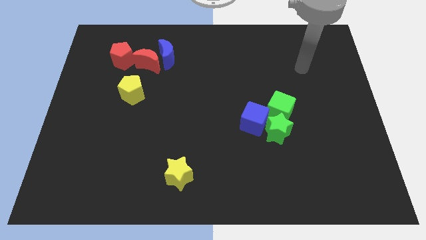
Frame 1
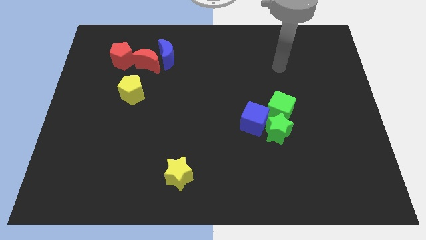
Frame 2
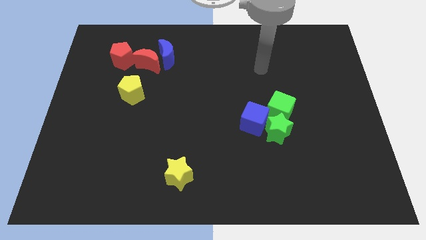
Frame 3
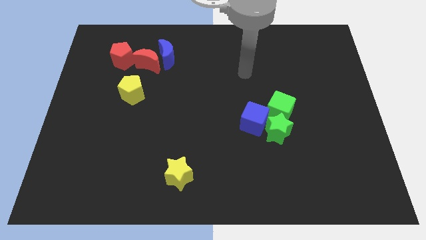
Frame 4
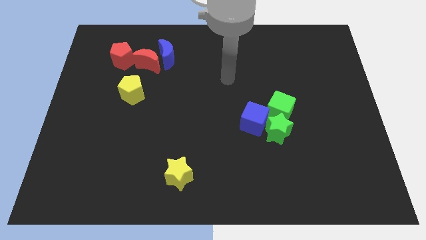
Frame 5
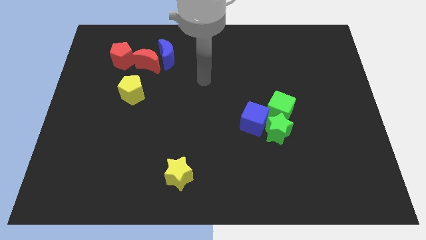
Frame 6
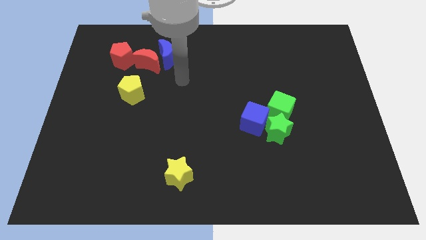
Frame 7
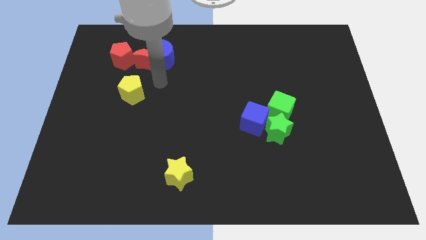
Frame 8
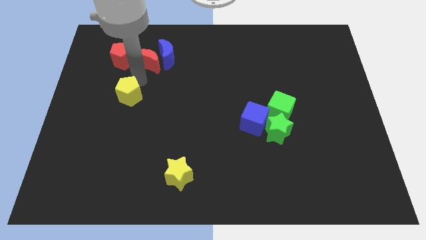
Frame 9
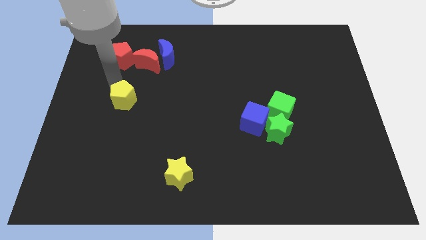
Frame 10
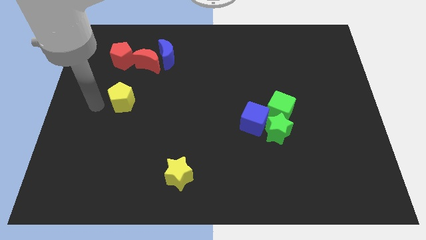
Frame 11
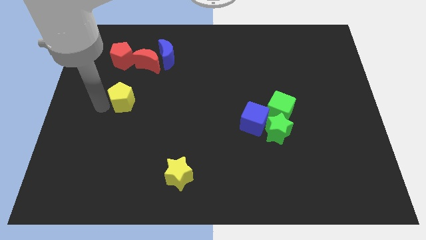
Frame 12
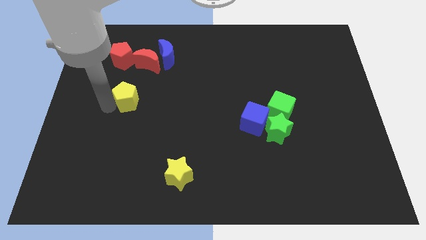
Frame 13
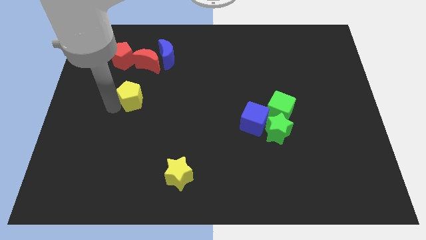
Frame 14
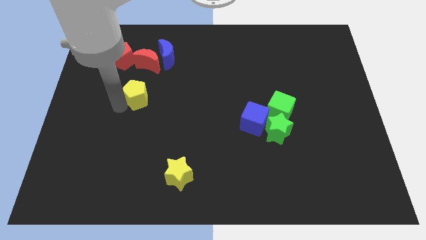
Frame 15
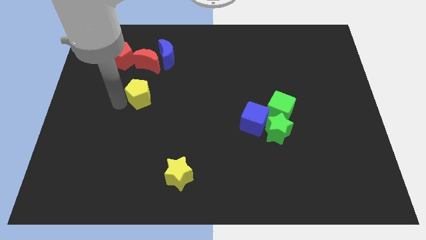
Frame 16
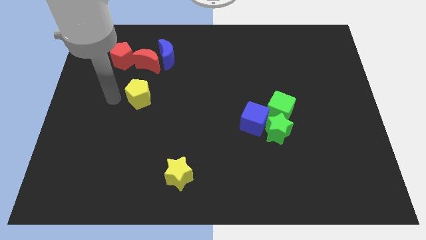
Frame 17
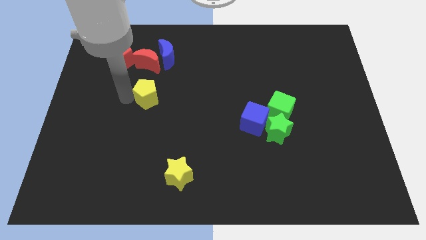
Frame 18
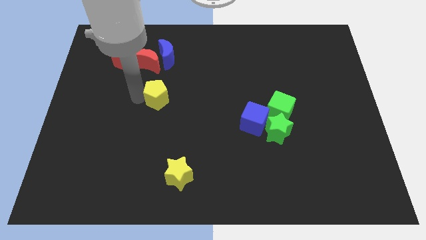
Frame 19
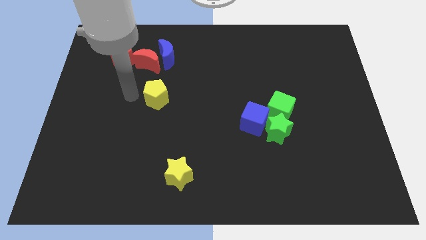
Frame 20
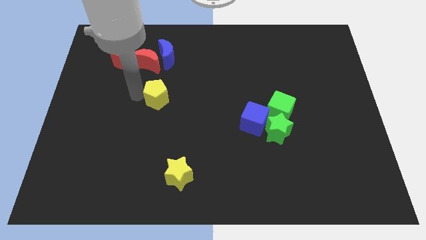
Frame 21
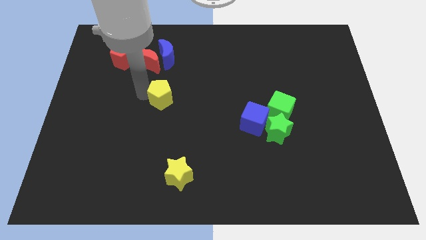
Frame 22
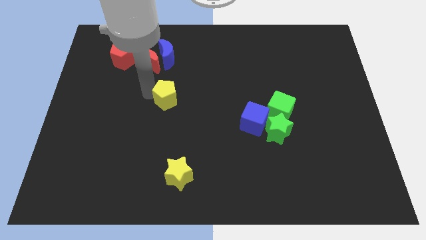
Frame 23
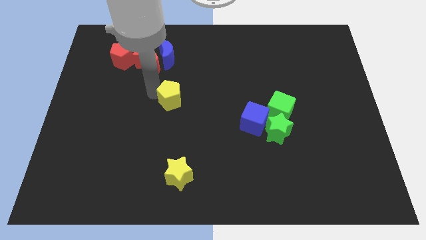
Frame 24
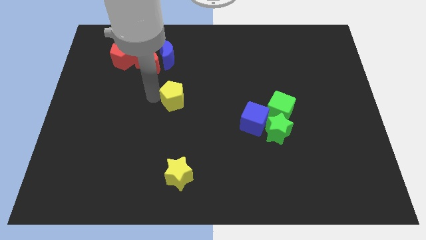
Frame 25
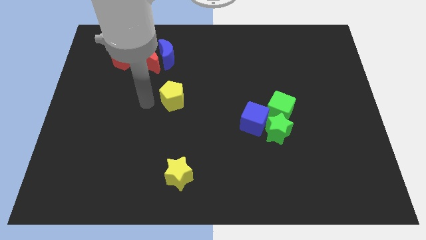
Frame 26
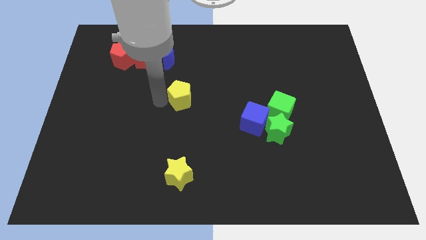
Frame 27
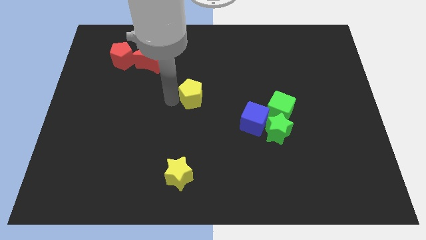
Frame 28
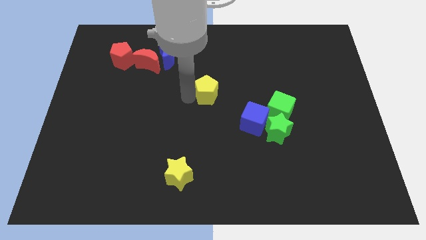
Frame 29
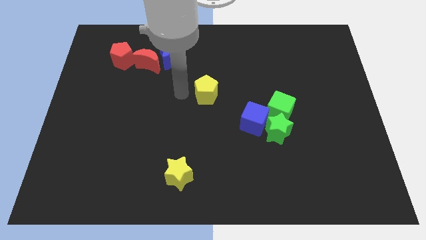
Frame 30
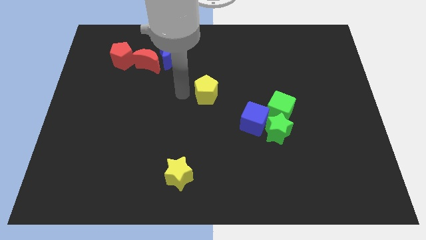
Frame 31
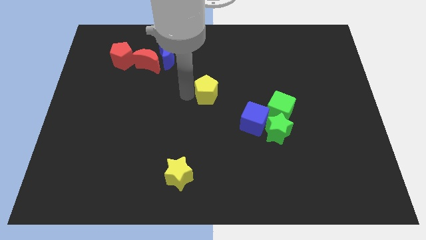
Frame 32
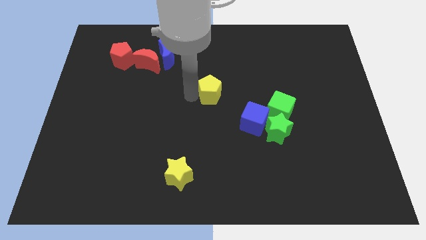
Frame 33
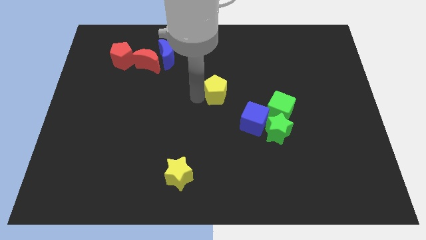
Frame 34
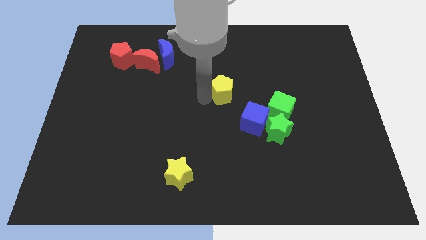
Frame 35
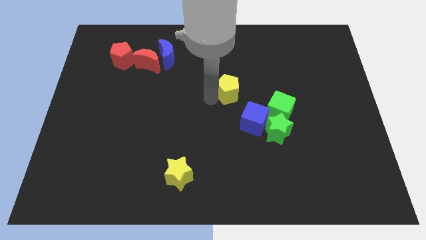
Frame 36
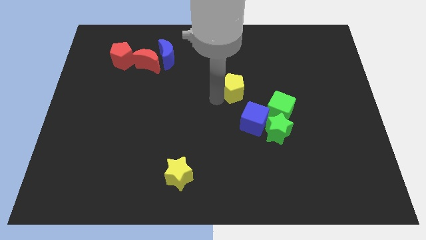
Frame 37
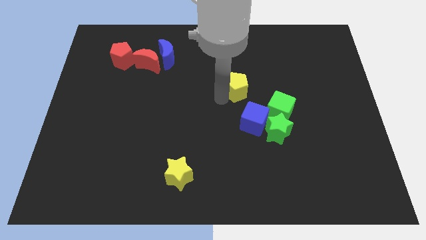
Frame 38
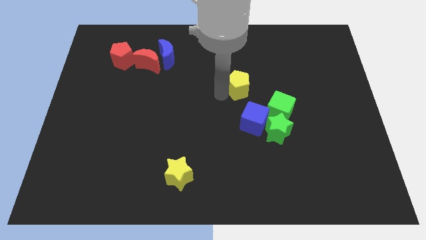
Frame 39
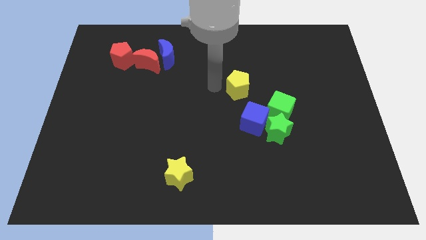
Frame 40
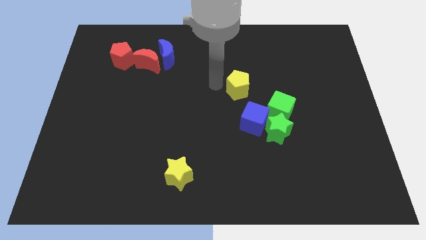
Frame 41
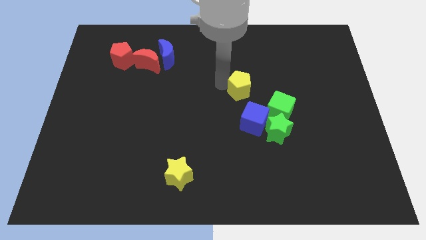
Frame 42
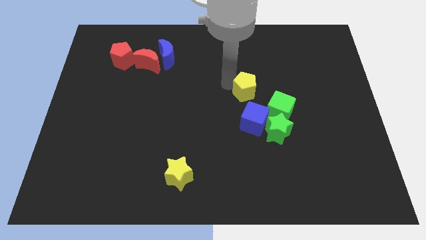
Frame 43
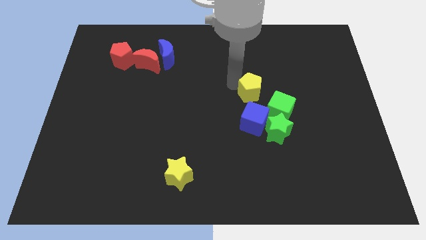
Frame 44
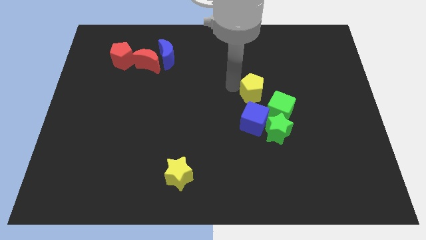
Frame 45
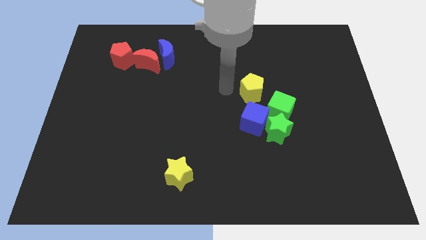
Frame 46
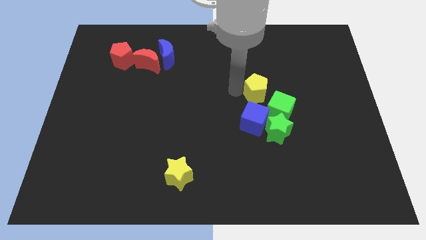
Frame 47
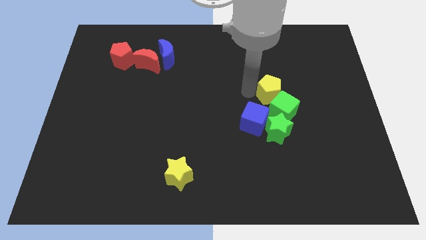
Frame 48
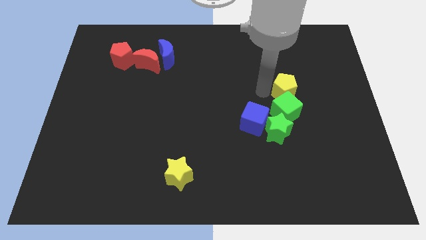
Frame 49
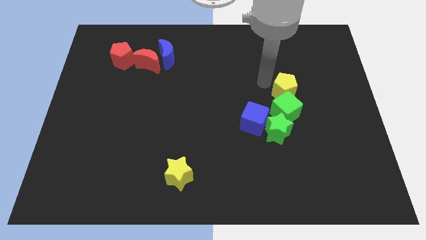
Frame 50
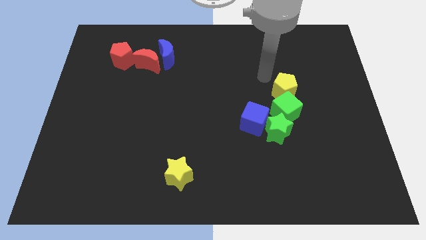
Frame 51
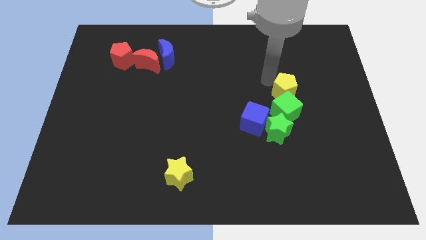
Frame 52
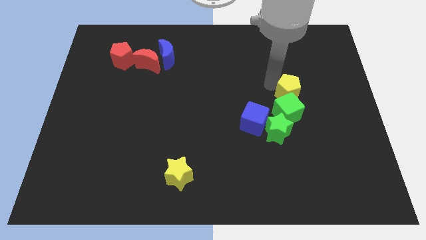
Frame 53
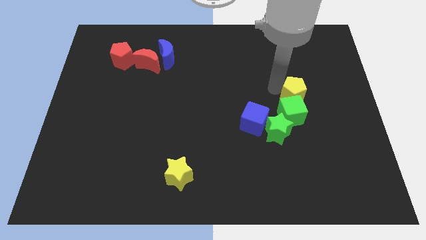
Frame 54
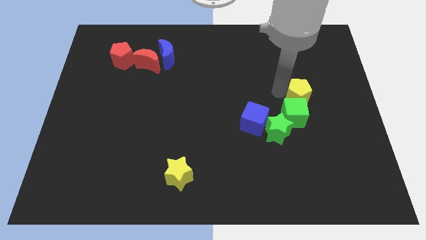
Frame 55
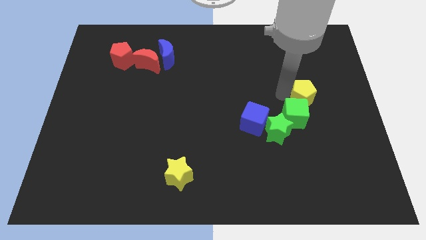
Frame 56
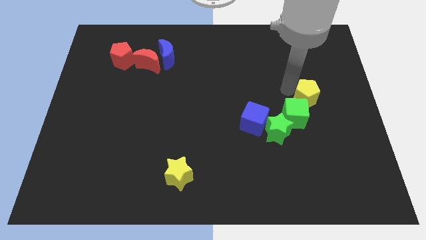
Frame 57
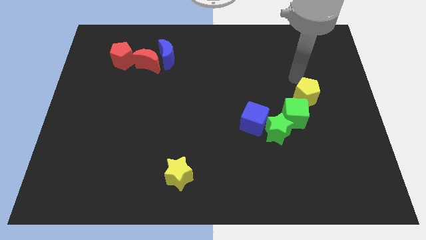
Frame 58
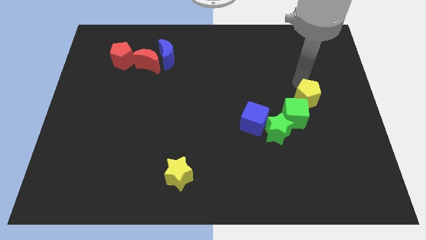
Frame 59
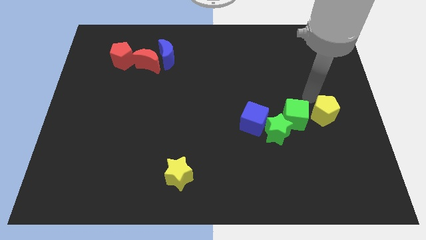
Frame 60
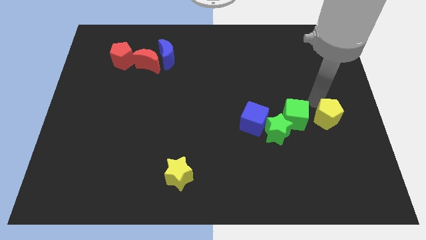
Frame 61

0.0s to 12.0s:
move the yellow pentagon to the right side of the green star

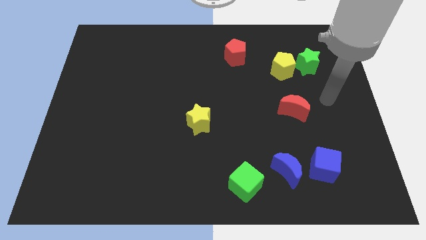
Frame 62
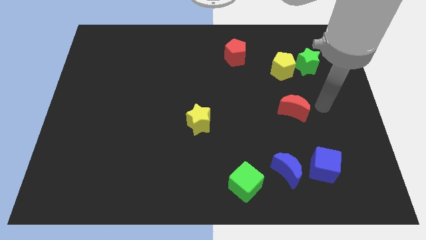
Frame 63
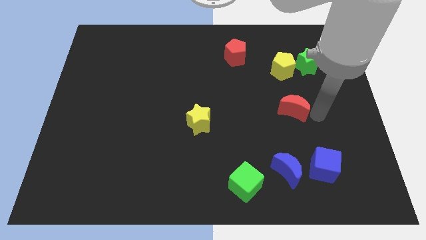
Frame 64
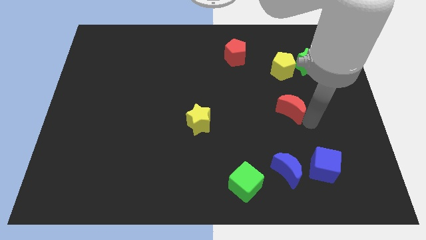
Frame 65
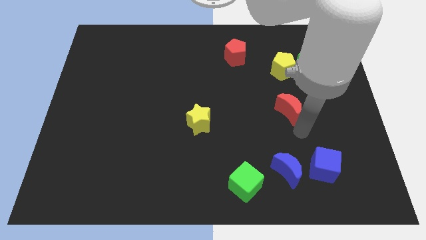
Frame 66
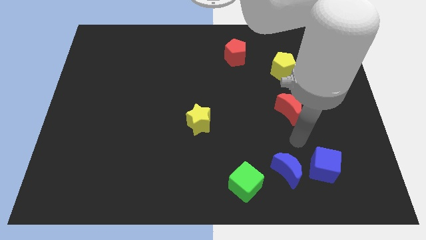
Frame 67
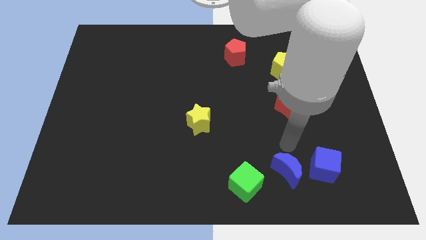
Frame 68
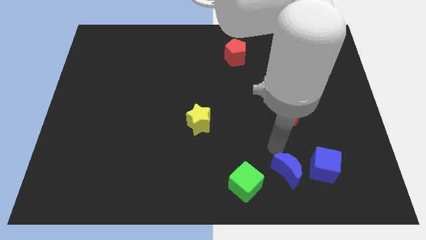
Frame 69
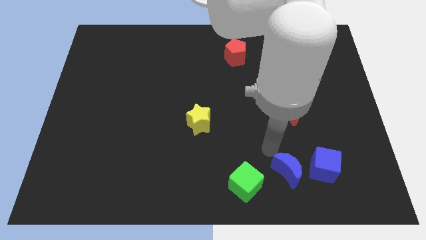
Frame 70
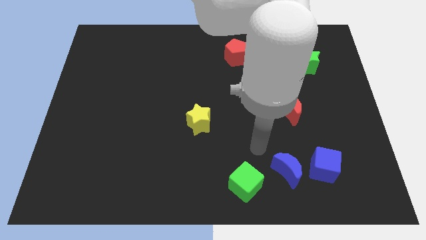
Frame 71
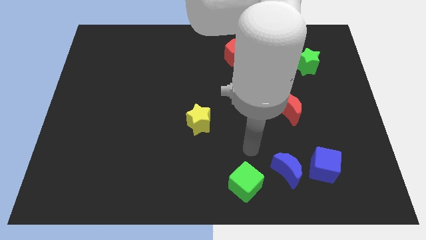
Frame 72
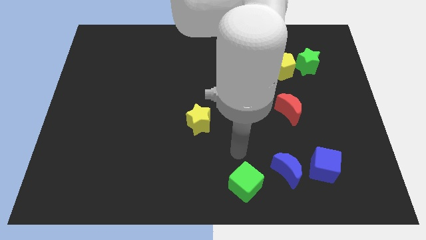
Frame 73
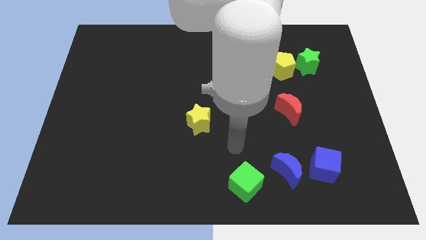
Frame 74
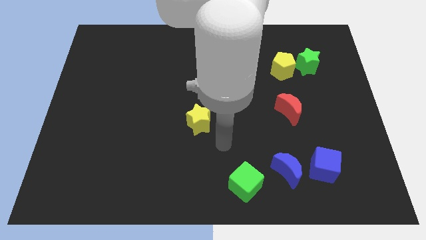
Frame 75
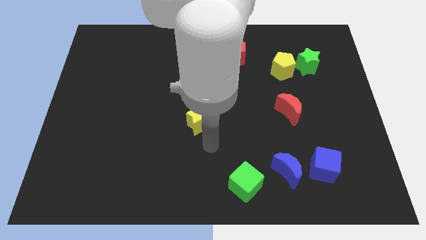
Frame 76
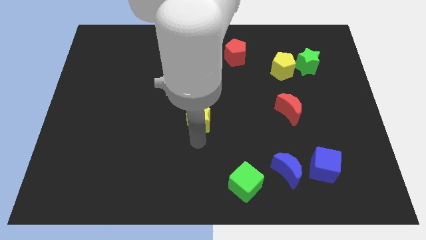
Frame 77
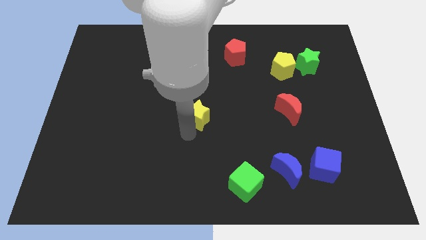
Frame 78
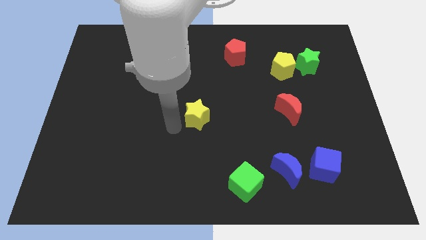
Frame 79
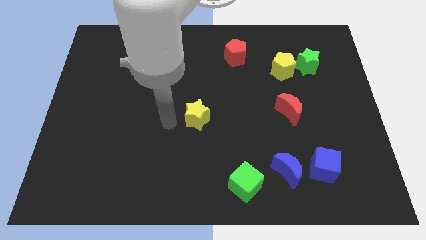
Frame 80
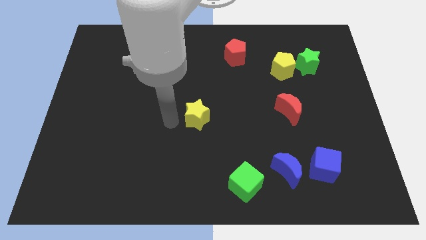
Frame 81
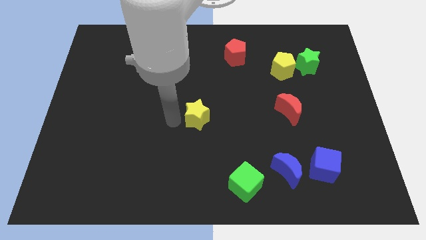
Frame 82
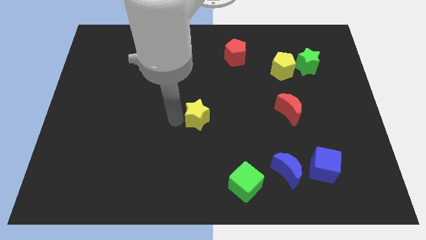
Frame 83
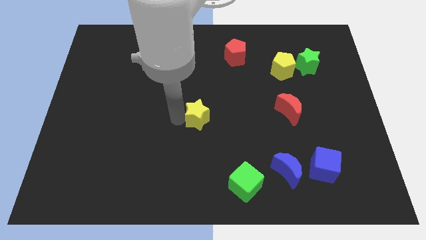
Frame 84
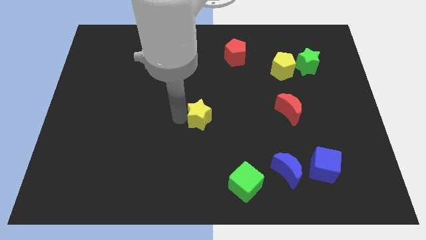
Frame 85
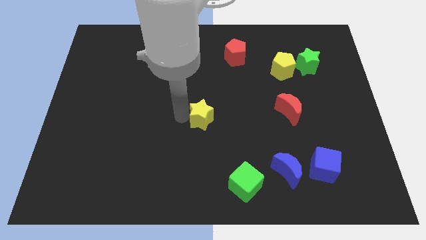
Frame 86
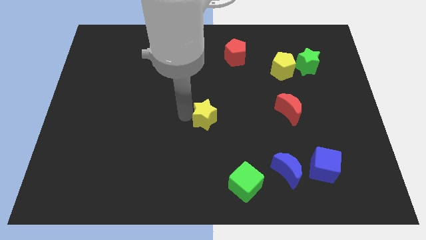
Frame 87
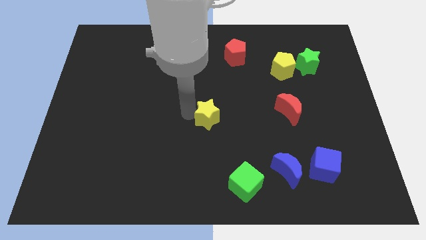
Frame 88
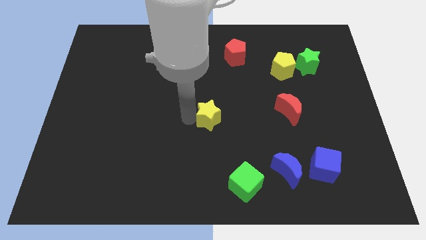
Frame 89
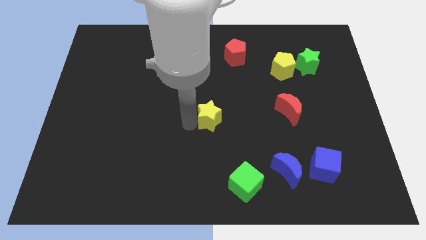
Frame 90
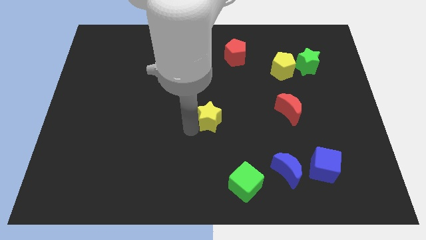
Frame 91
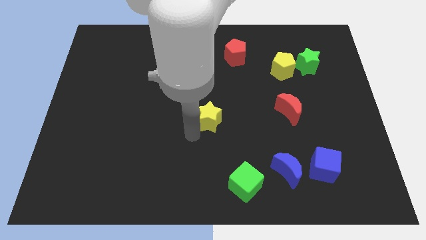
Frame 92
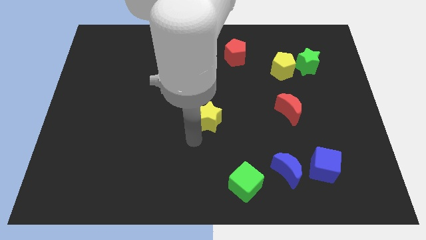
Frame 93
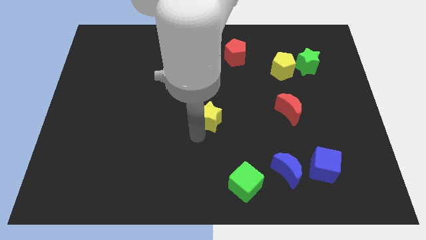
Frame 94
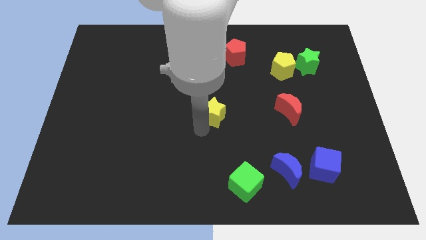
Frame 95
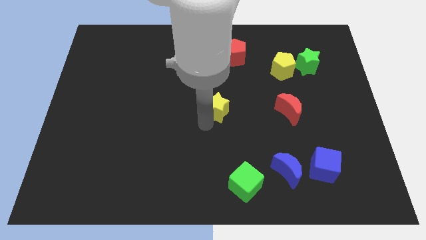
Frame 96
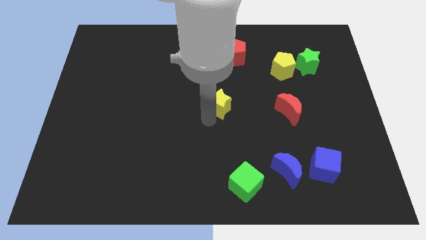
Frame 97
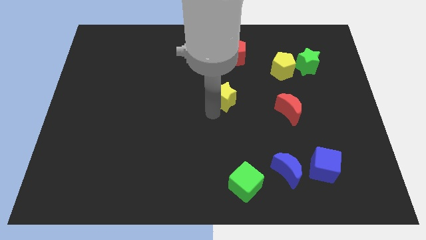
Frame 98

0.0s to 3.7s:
slide the yellow star to the bottom side of the red pentagon
